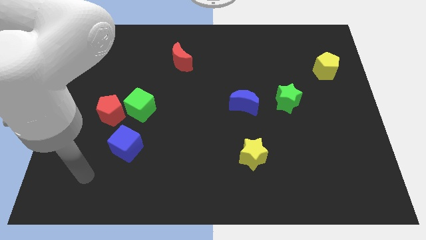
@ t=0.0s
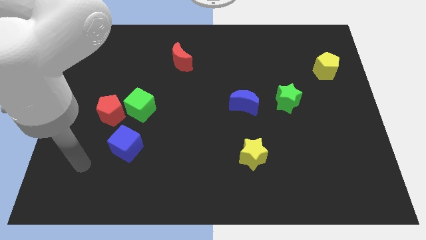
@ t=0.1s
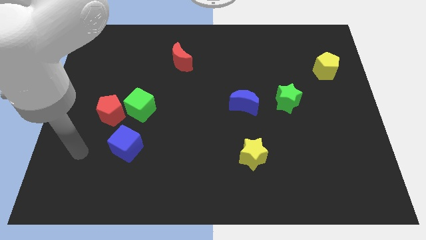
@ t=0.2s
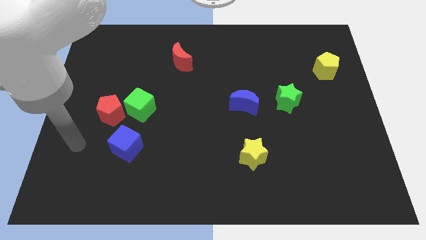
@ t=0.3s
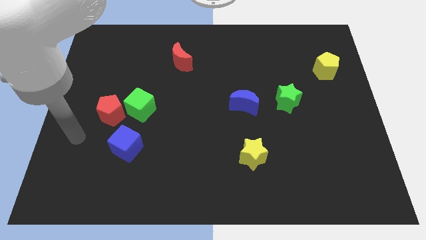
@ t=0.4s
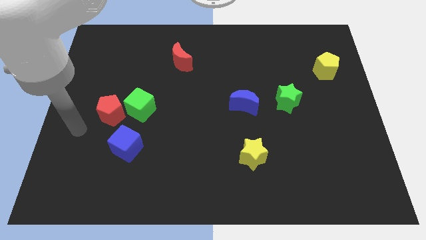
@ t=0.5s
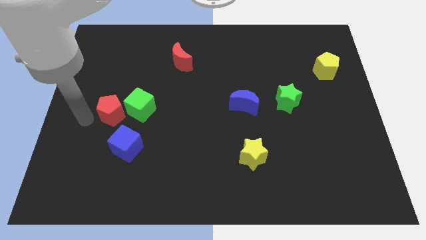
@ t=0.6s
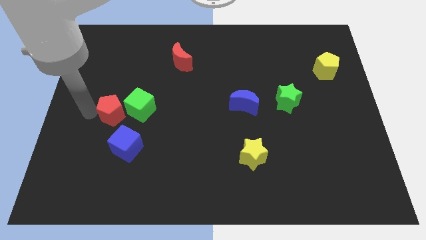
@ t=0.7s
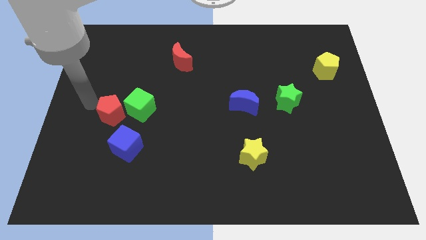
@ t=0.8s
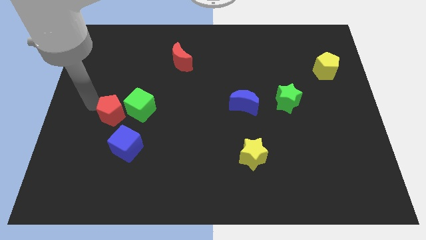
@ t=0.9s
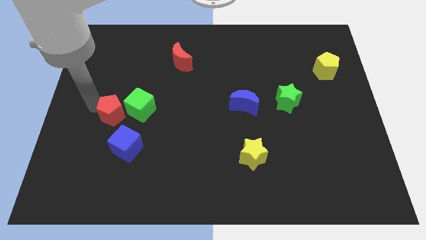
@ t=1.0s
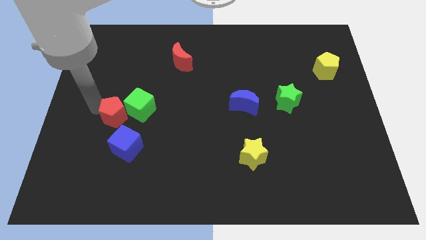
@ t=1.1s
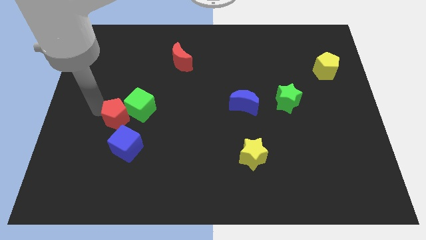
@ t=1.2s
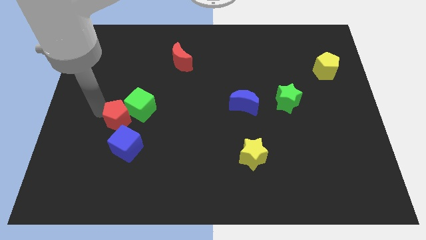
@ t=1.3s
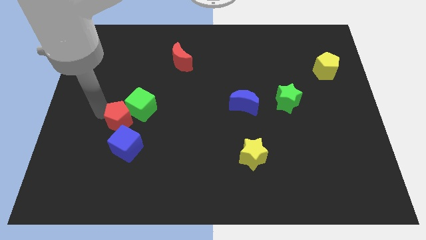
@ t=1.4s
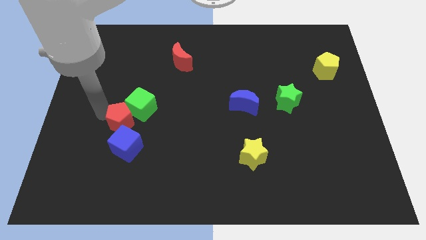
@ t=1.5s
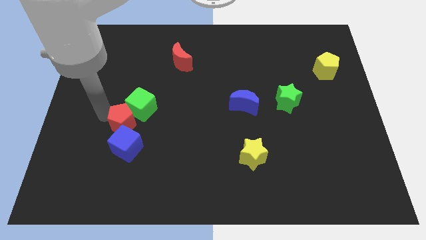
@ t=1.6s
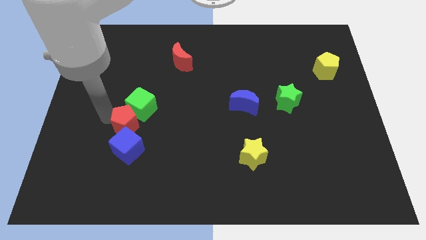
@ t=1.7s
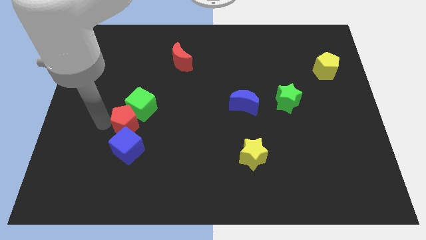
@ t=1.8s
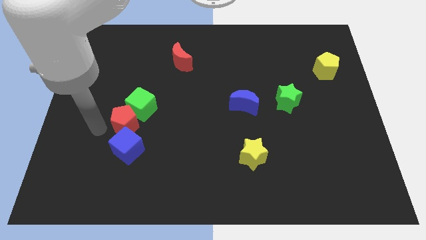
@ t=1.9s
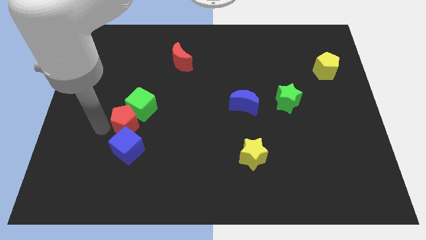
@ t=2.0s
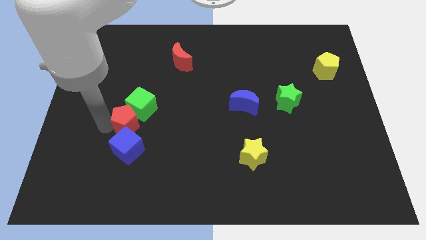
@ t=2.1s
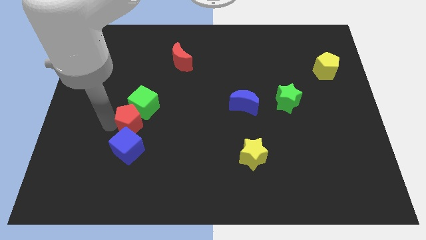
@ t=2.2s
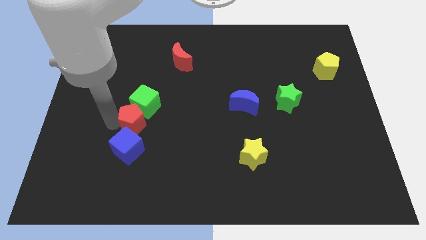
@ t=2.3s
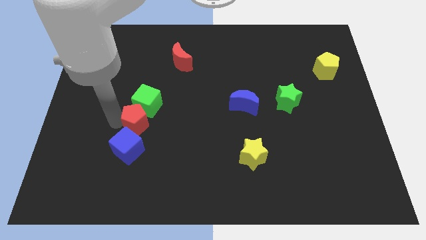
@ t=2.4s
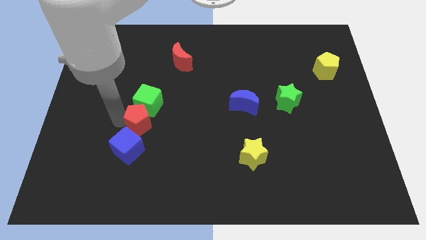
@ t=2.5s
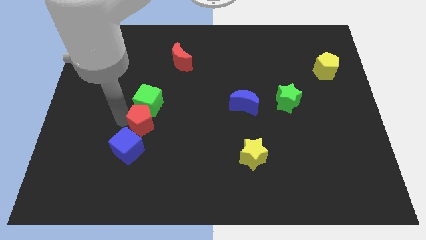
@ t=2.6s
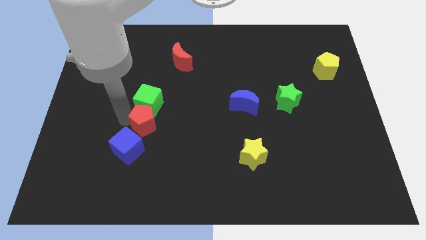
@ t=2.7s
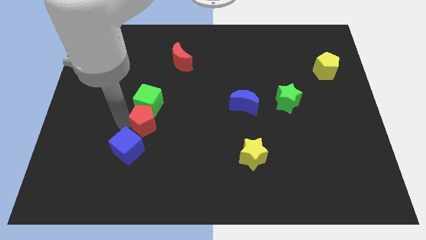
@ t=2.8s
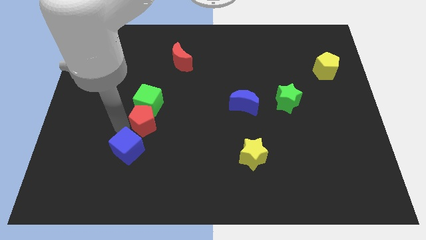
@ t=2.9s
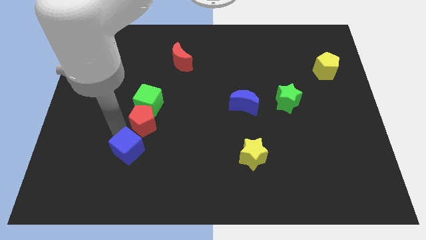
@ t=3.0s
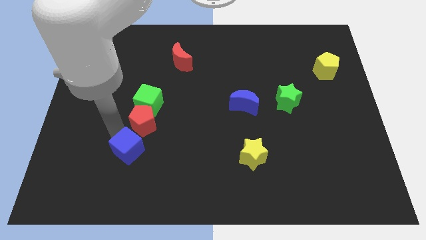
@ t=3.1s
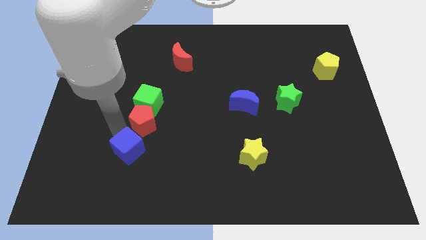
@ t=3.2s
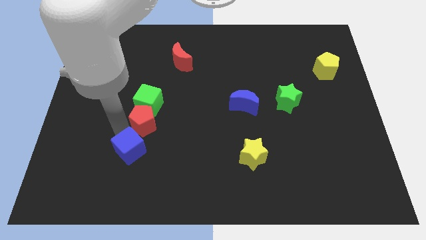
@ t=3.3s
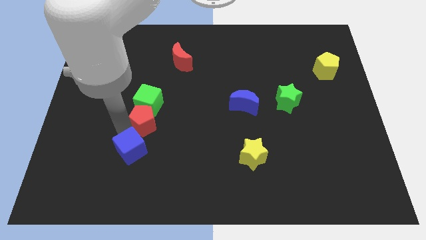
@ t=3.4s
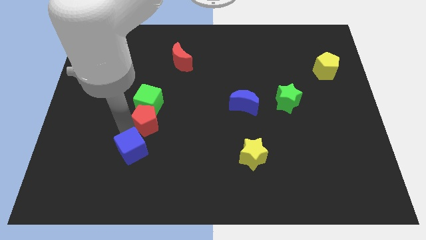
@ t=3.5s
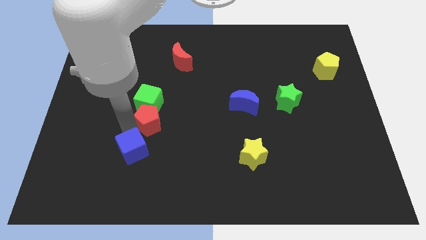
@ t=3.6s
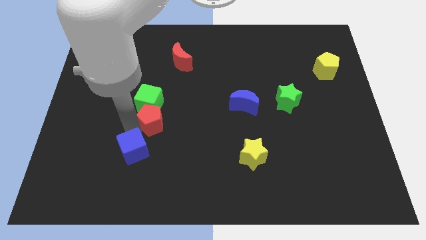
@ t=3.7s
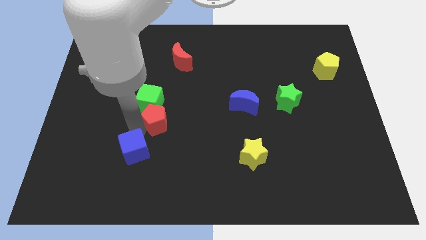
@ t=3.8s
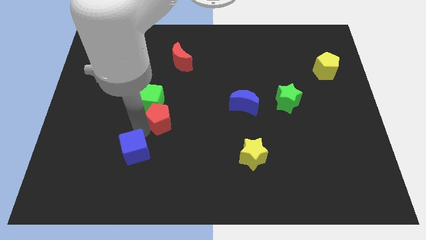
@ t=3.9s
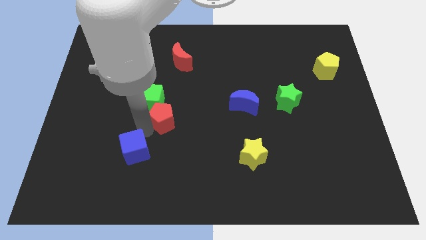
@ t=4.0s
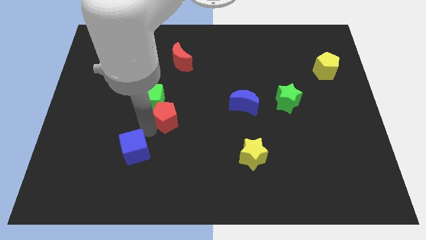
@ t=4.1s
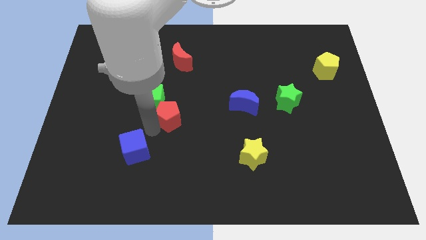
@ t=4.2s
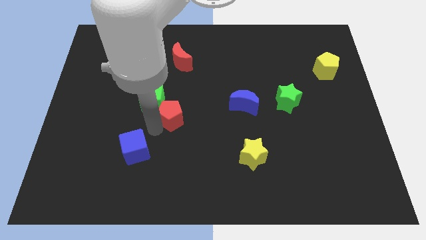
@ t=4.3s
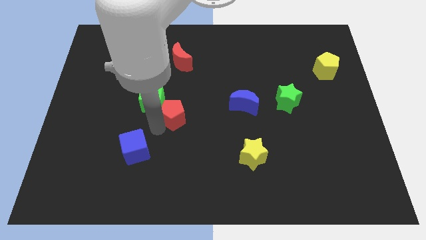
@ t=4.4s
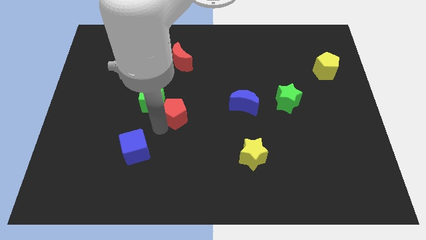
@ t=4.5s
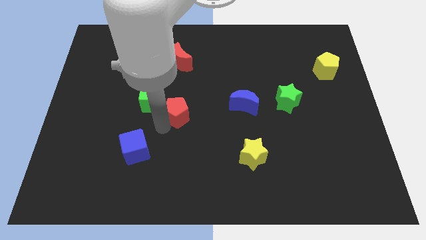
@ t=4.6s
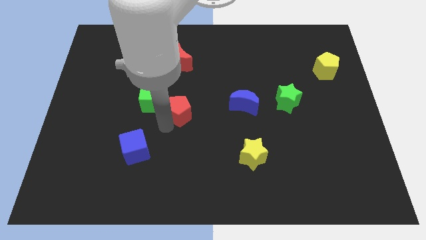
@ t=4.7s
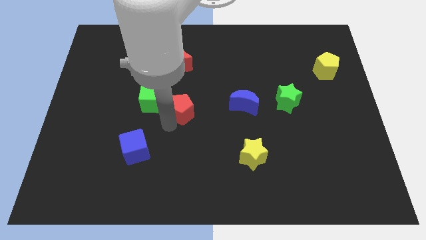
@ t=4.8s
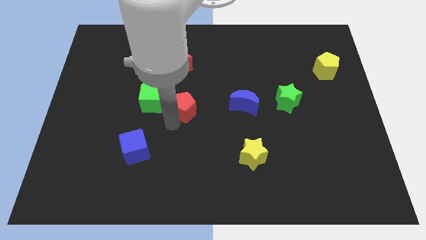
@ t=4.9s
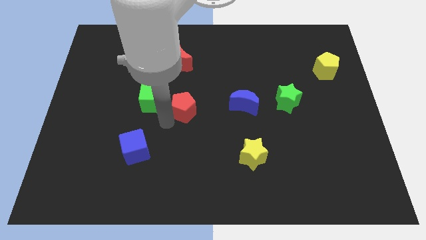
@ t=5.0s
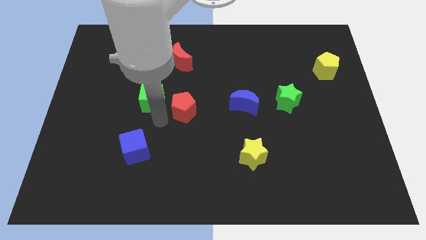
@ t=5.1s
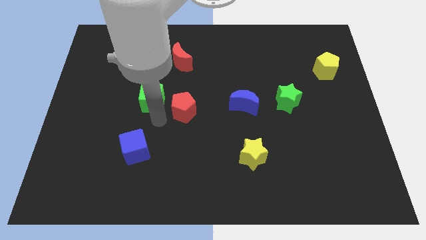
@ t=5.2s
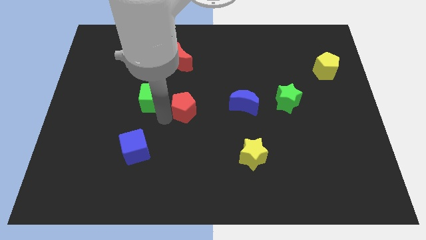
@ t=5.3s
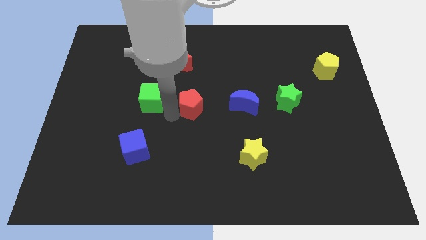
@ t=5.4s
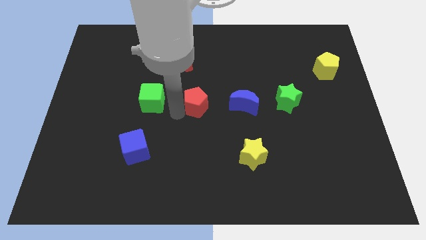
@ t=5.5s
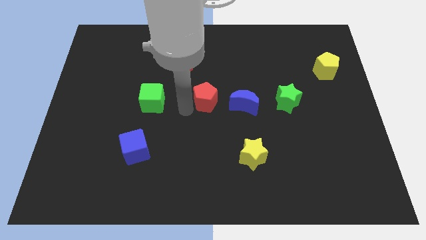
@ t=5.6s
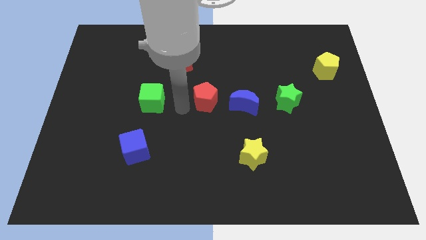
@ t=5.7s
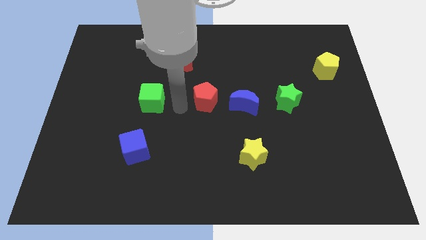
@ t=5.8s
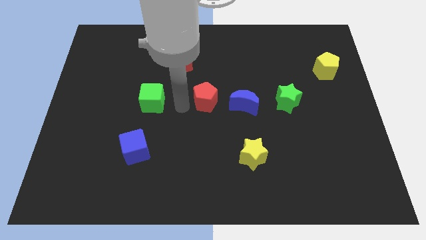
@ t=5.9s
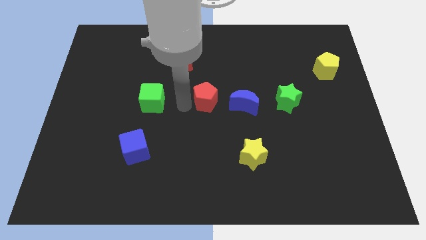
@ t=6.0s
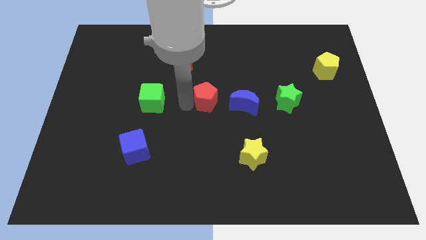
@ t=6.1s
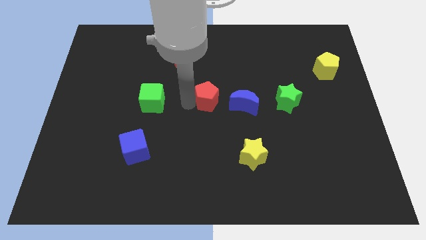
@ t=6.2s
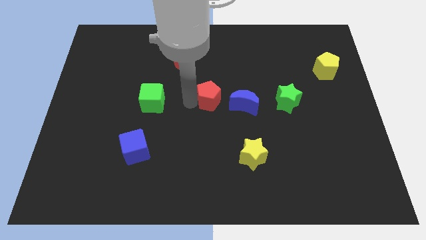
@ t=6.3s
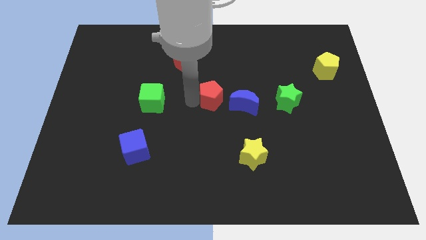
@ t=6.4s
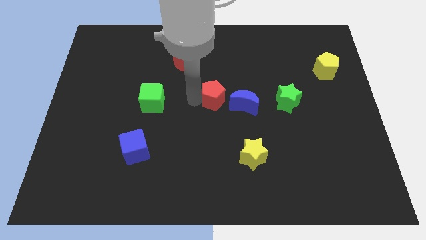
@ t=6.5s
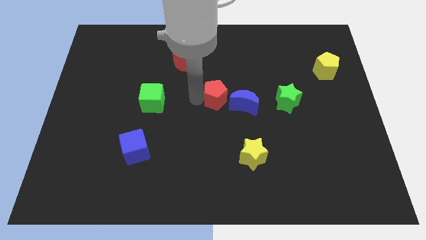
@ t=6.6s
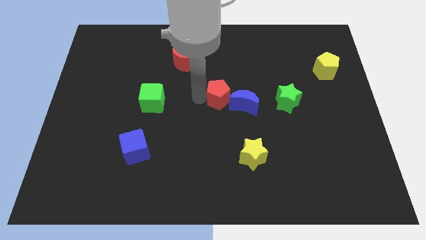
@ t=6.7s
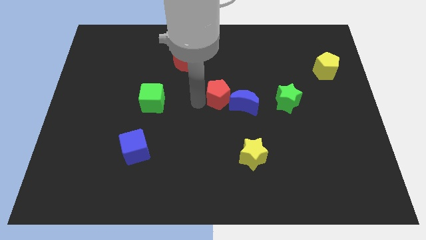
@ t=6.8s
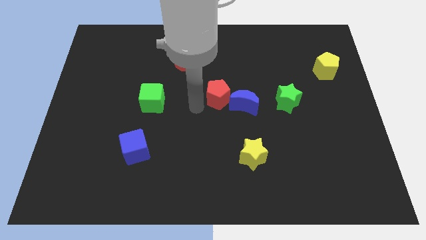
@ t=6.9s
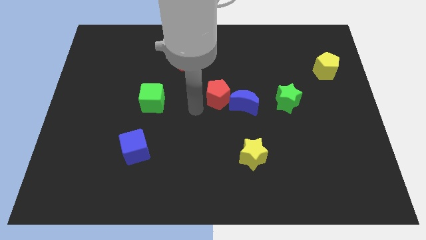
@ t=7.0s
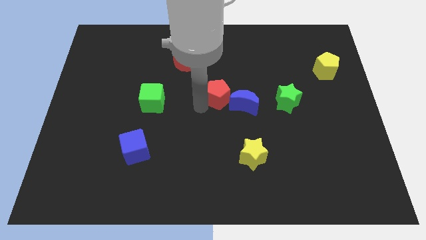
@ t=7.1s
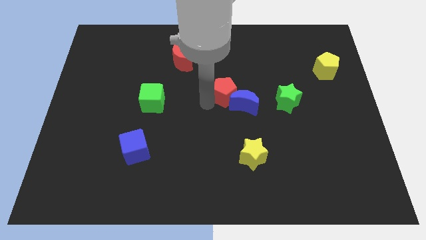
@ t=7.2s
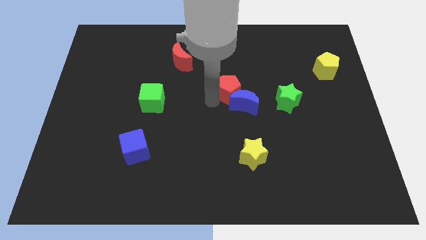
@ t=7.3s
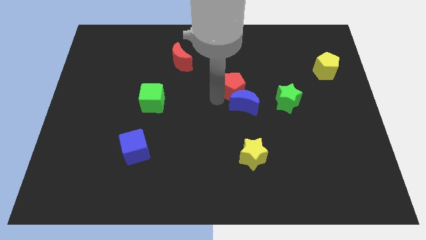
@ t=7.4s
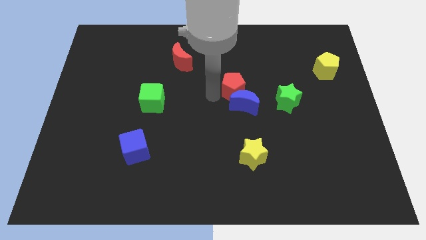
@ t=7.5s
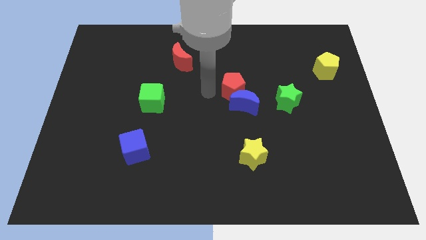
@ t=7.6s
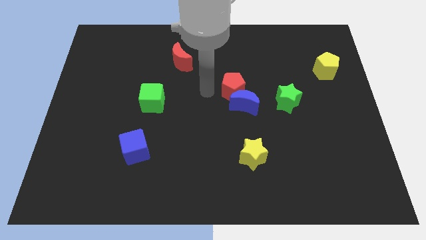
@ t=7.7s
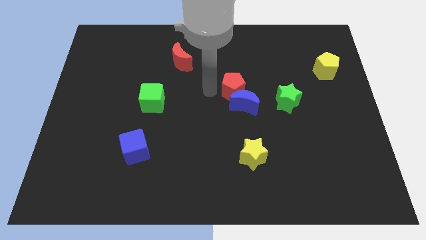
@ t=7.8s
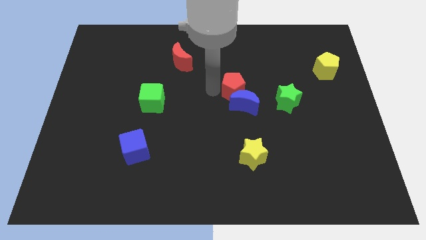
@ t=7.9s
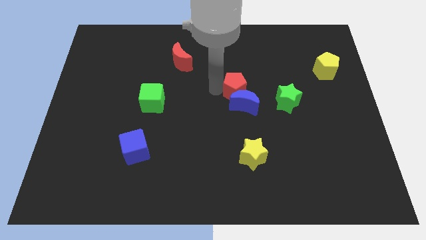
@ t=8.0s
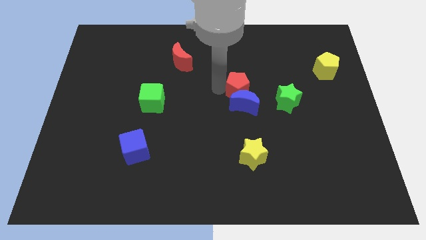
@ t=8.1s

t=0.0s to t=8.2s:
push the red pentagon to the top right of the blue moon

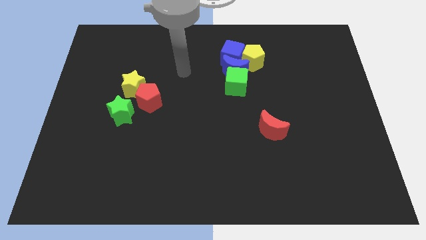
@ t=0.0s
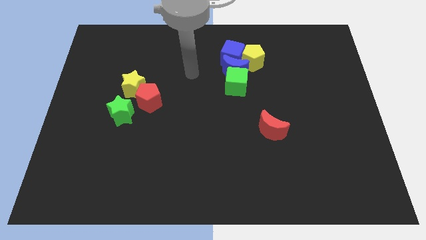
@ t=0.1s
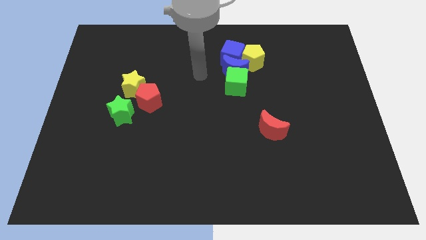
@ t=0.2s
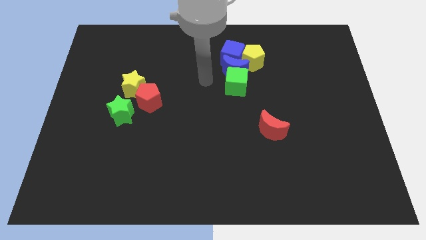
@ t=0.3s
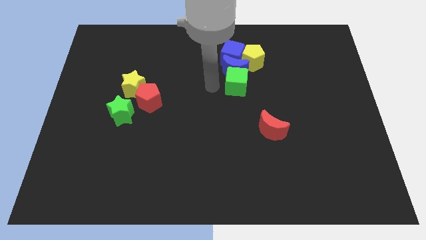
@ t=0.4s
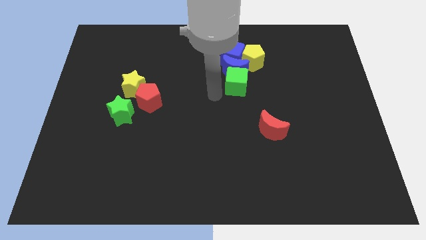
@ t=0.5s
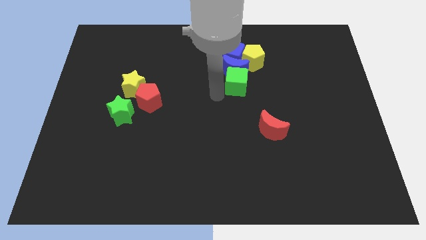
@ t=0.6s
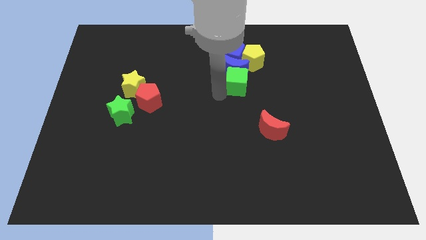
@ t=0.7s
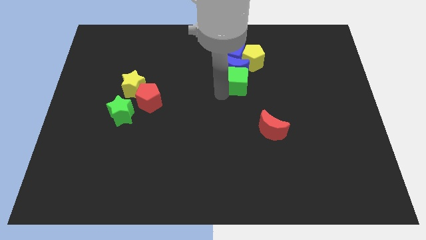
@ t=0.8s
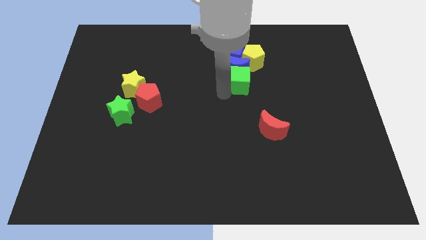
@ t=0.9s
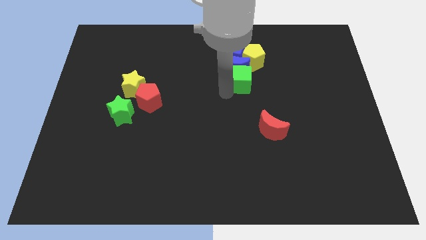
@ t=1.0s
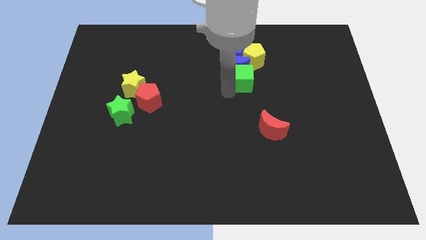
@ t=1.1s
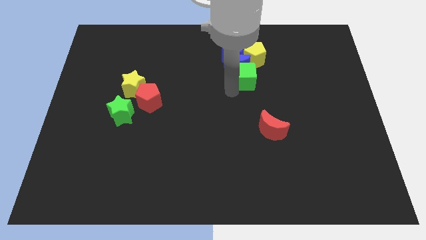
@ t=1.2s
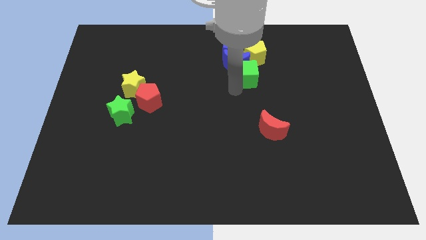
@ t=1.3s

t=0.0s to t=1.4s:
put the green cube just right of the blue moon
